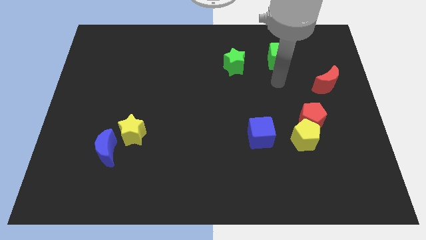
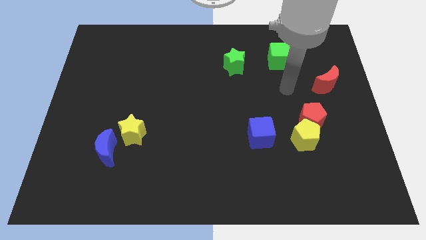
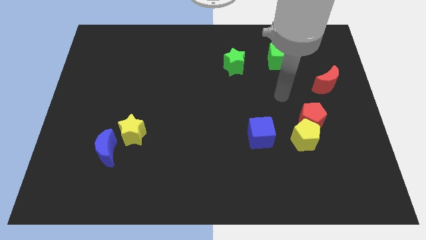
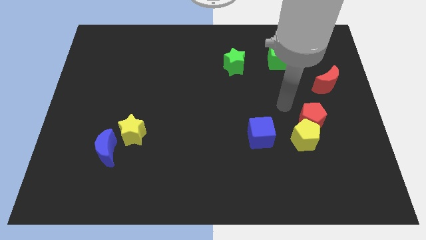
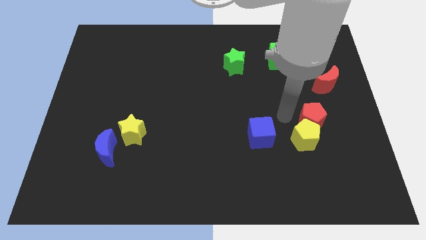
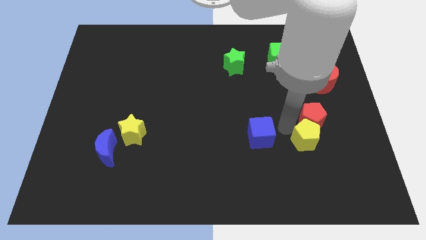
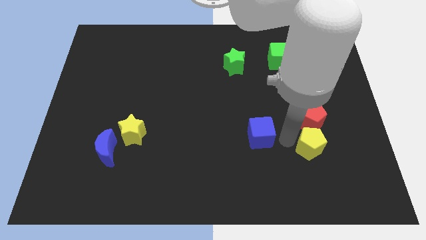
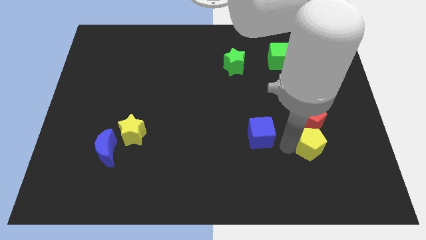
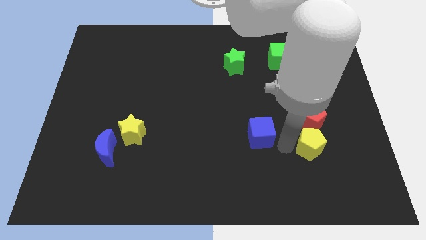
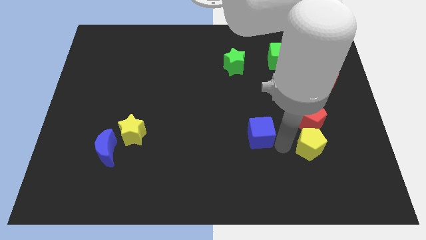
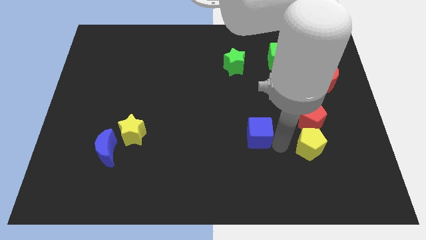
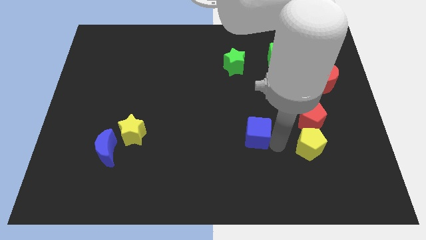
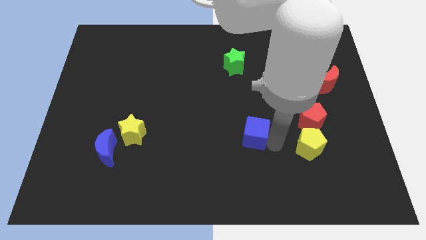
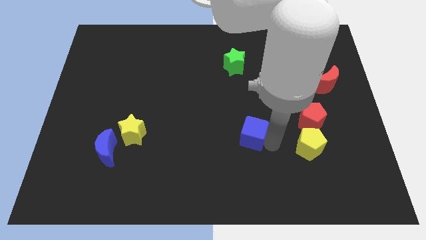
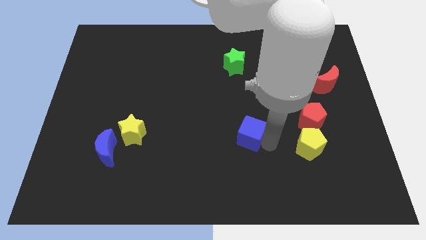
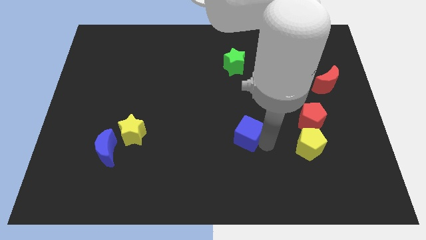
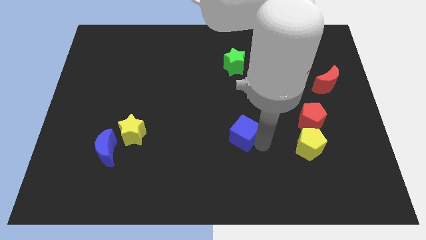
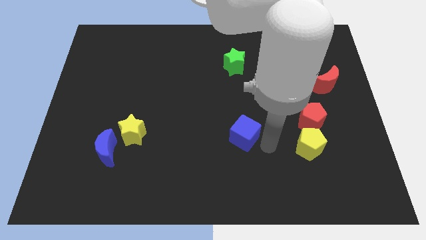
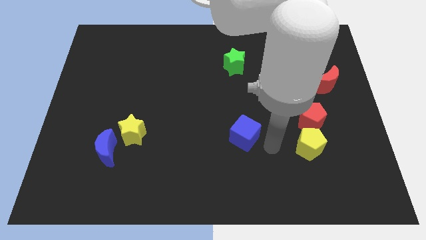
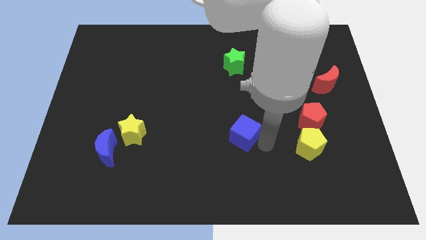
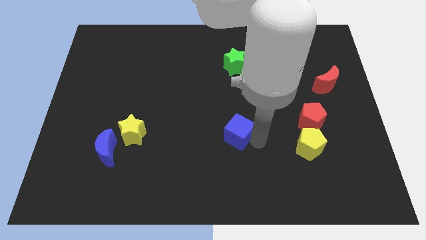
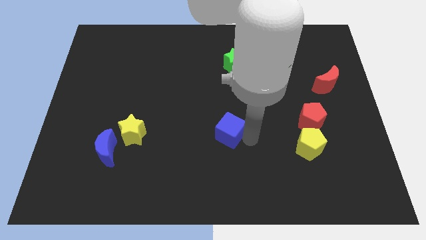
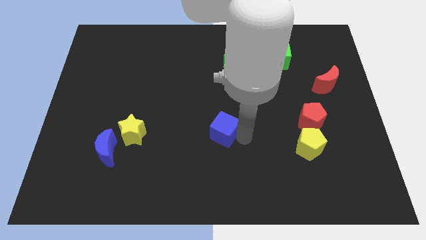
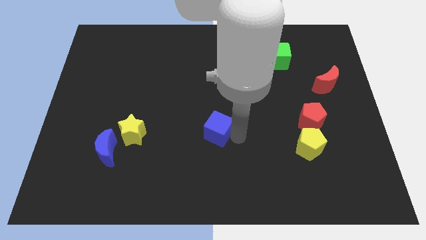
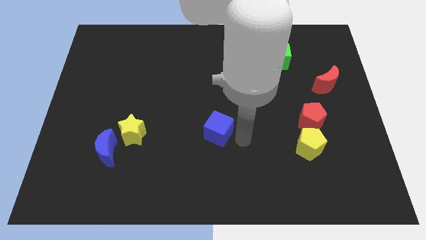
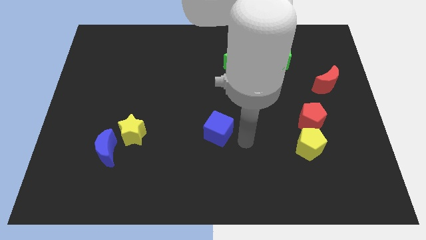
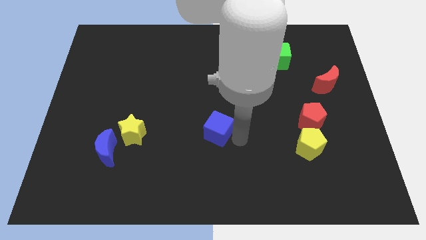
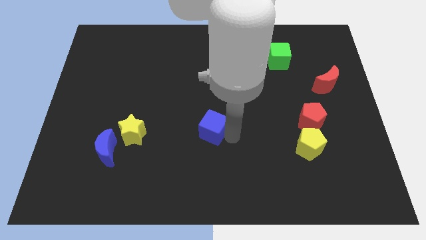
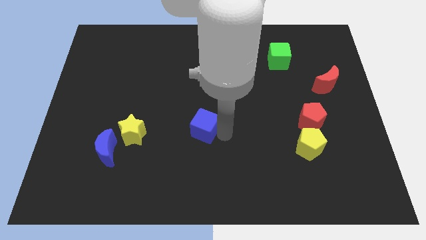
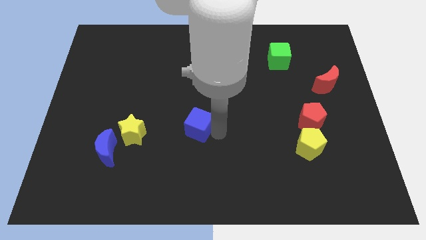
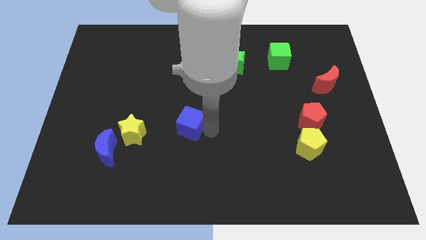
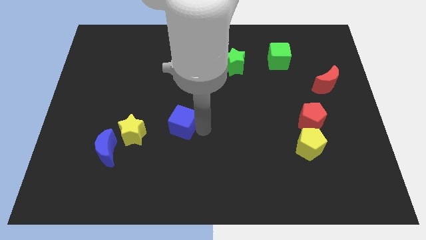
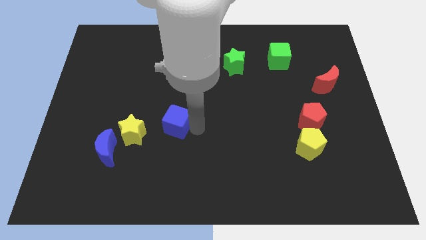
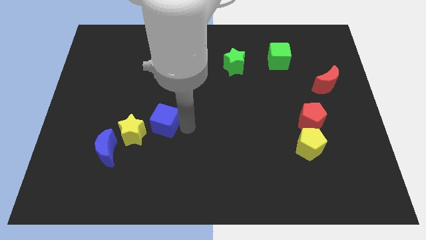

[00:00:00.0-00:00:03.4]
move the blue cube left

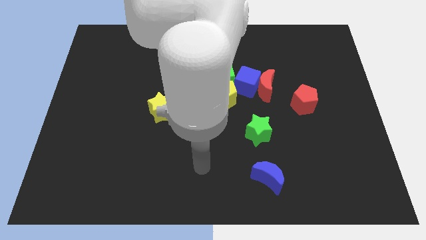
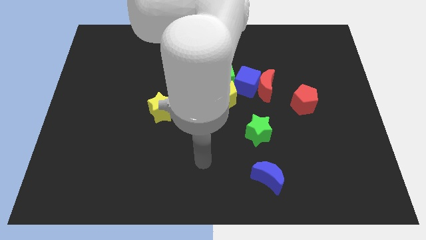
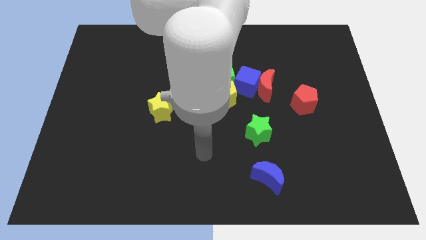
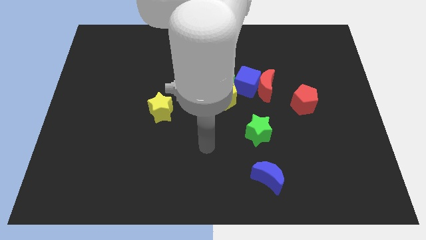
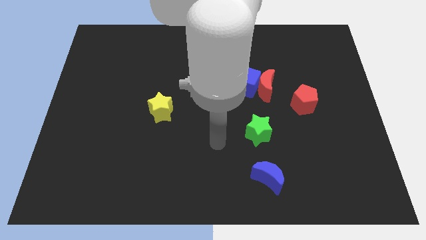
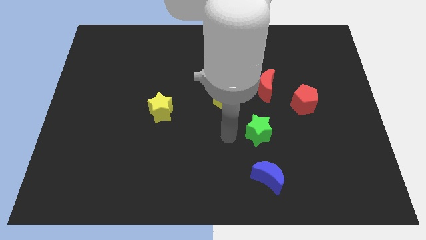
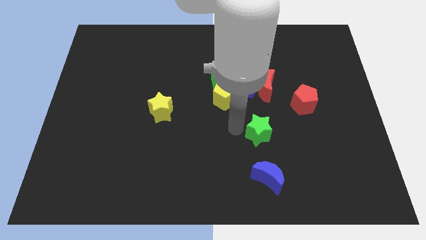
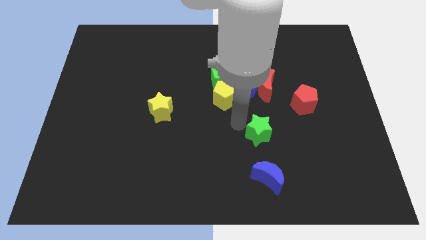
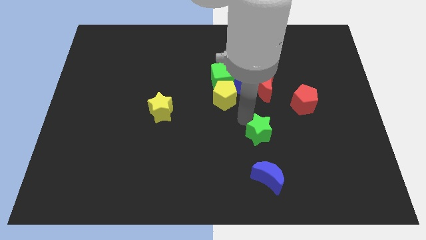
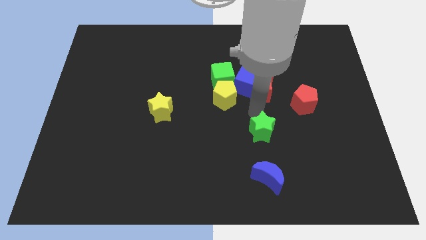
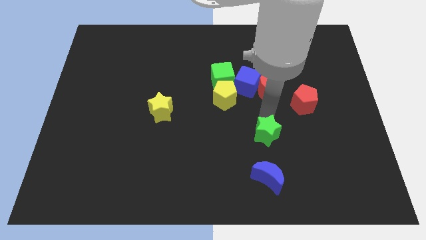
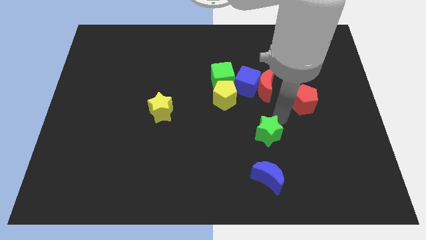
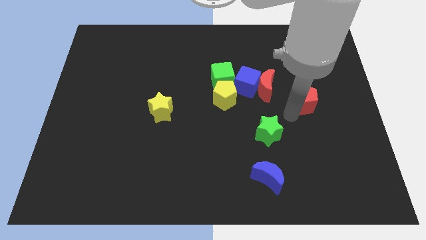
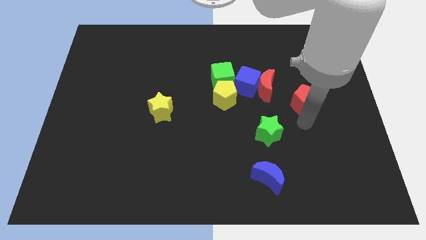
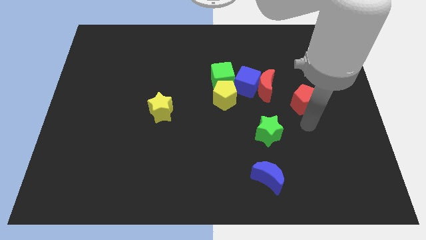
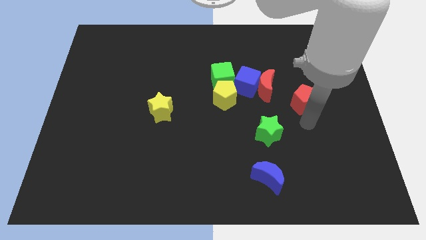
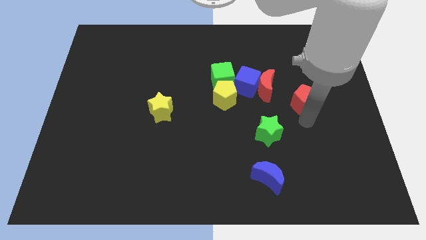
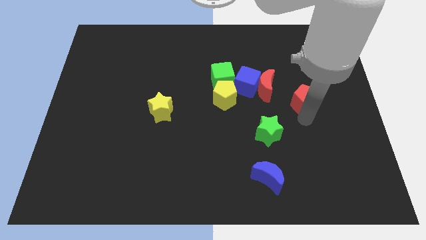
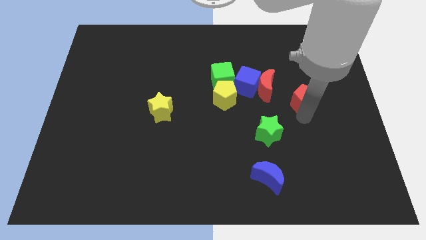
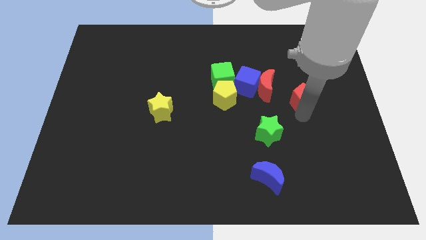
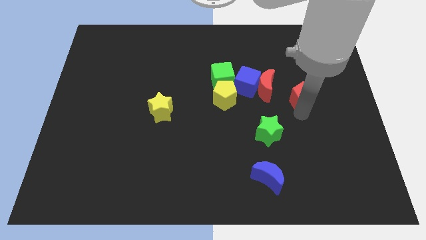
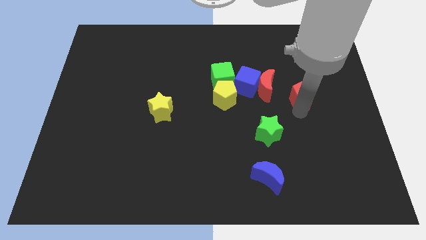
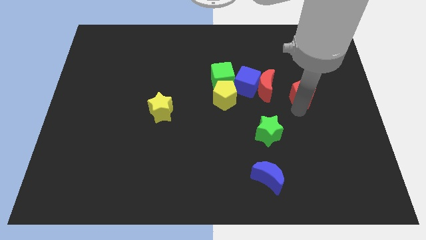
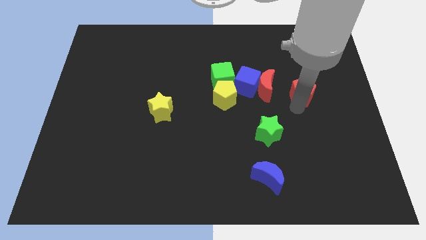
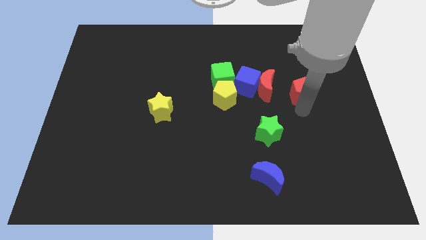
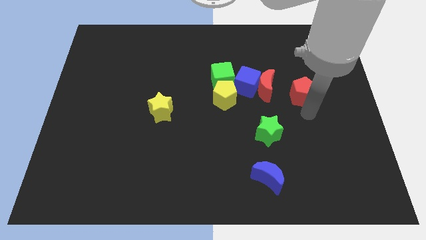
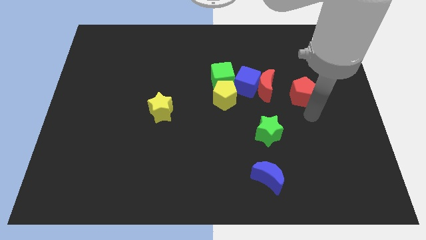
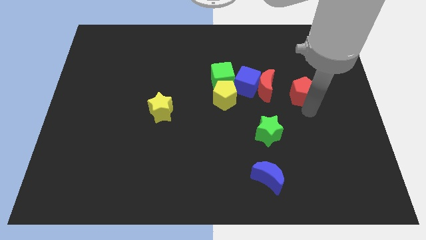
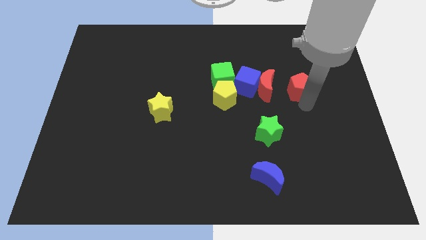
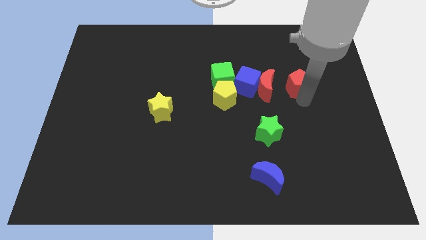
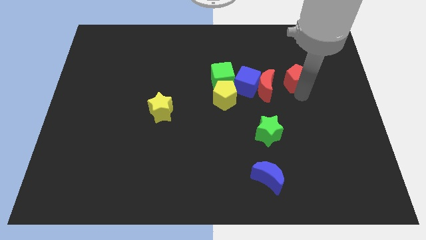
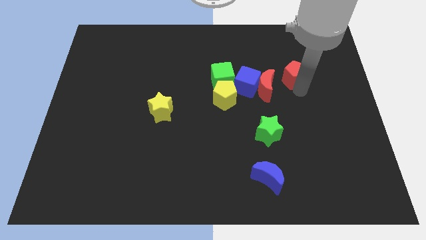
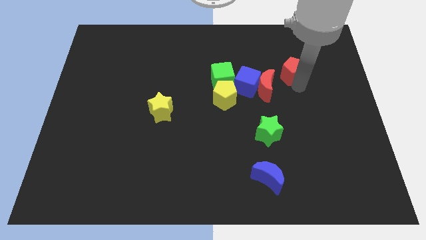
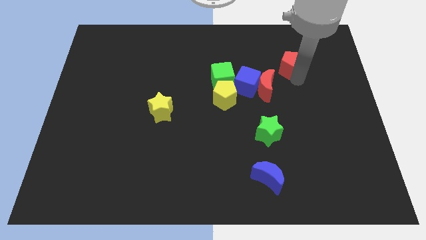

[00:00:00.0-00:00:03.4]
push the red pentagon a little bit up and left diagonally

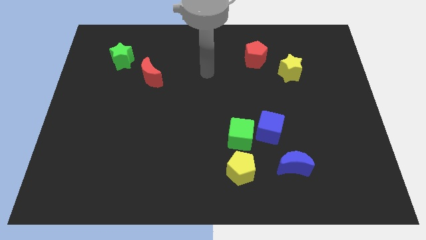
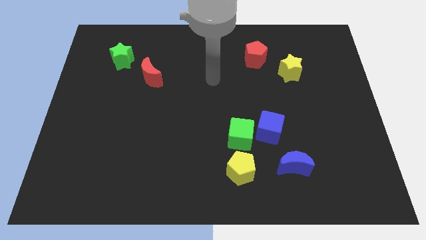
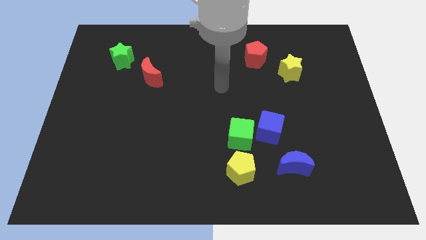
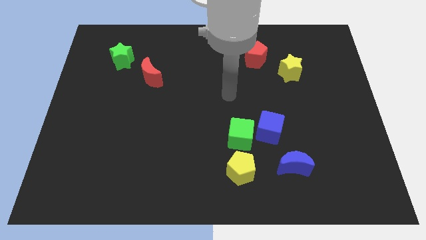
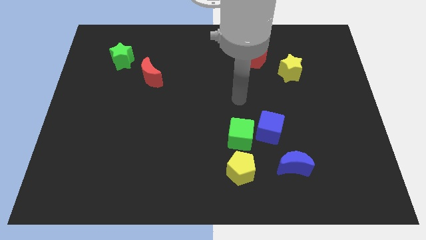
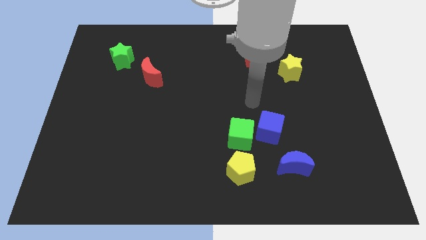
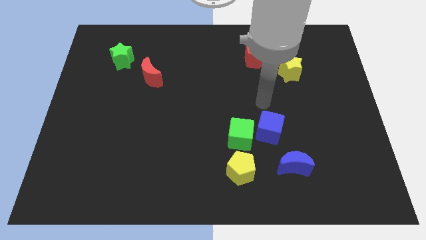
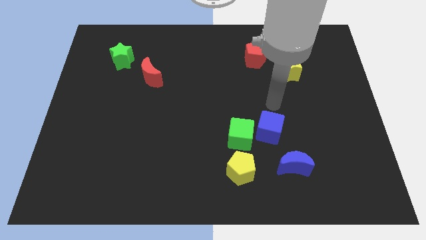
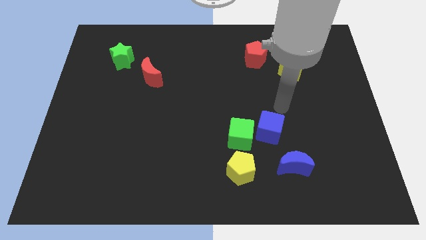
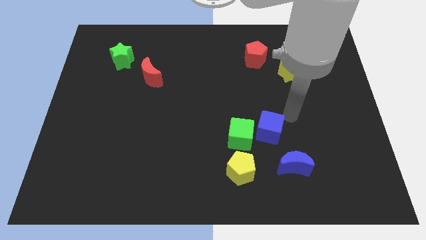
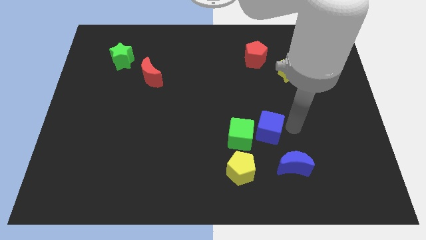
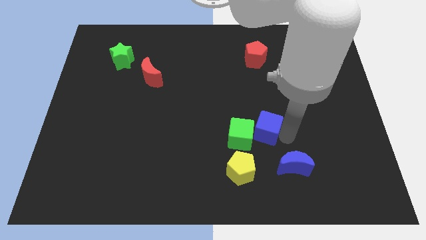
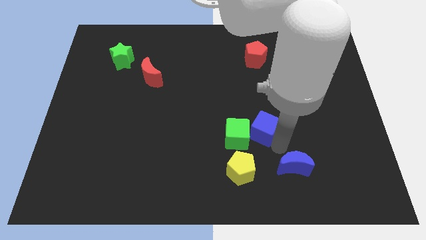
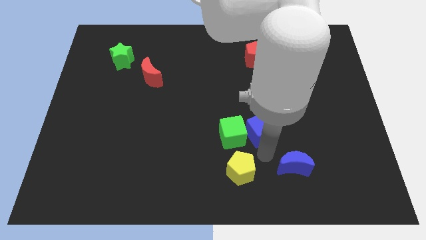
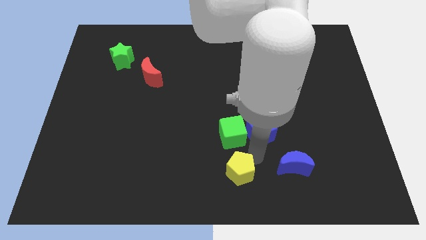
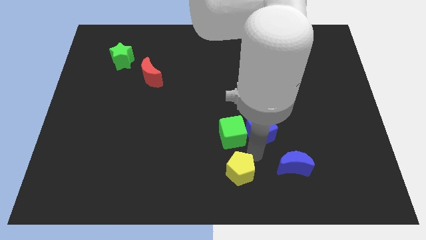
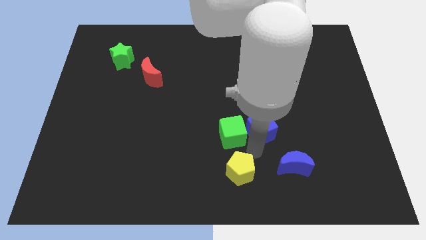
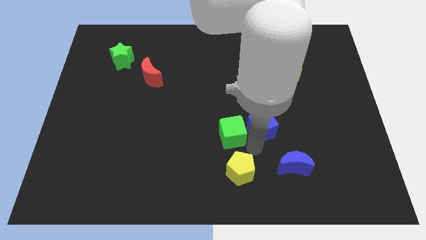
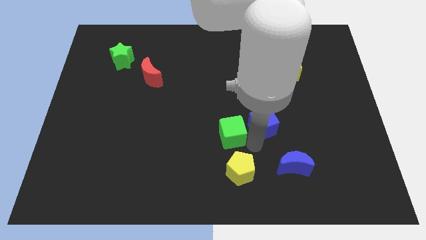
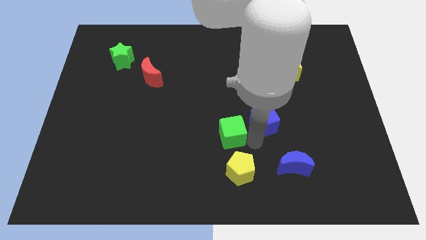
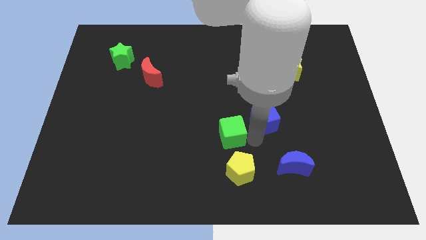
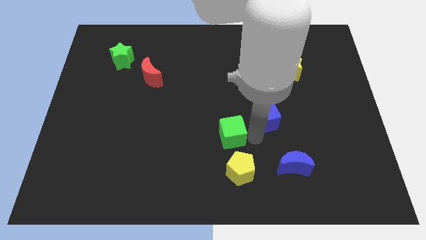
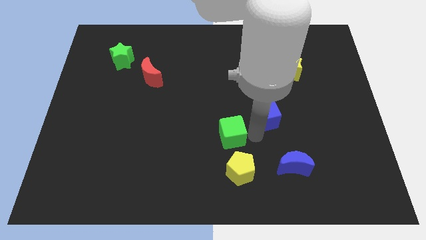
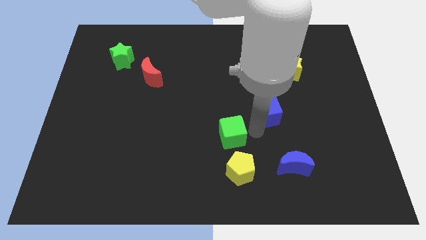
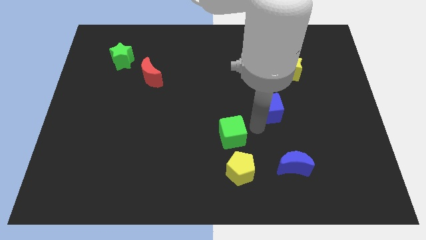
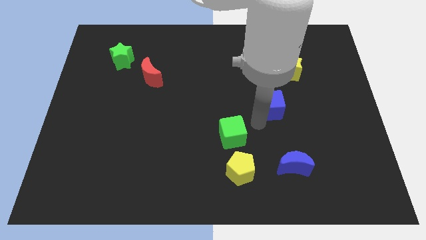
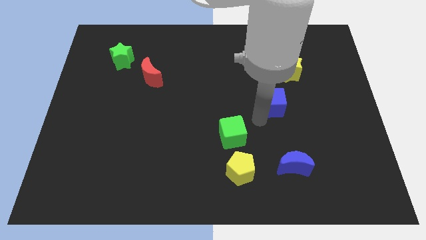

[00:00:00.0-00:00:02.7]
slightly slide the blue cube up
